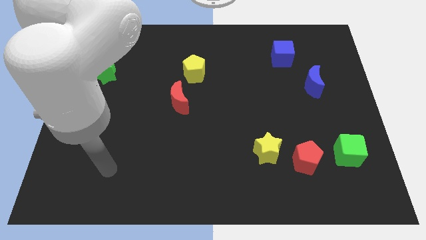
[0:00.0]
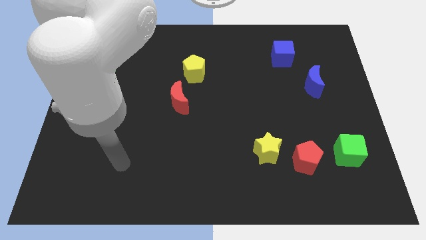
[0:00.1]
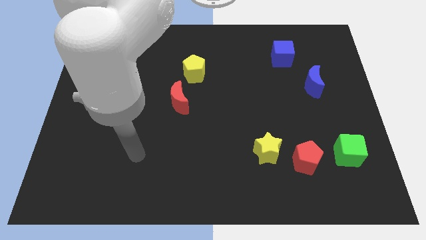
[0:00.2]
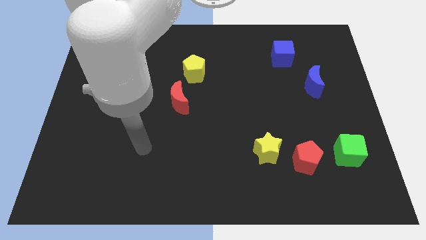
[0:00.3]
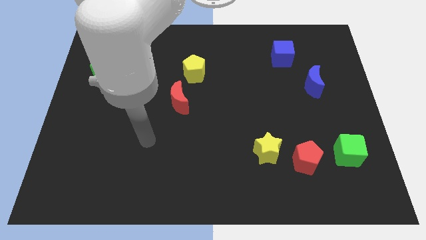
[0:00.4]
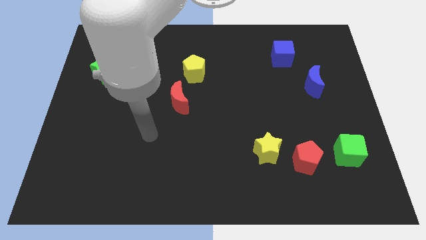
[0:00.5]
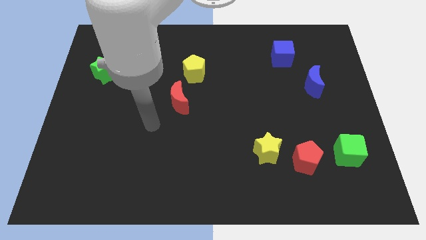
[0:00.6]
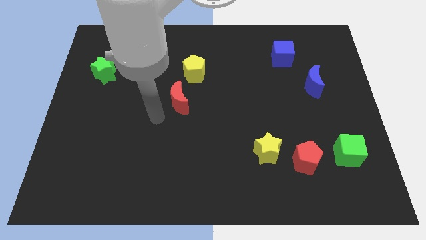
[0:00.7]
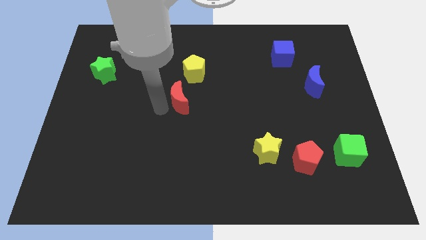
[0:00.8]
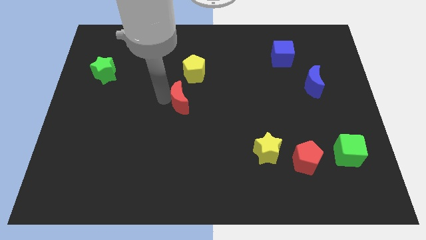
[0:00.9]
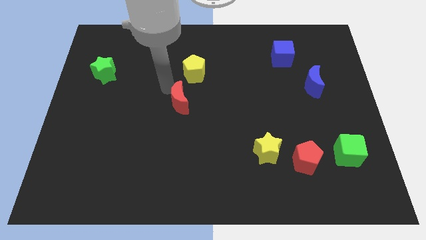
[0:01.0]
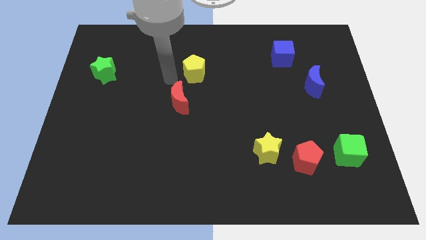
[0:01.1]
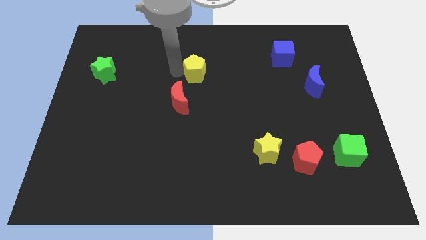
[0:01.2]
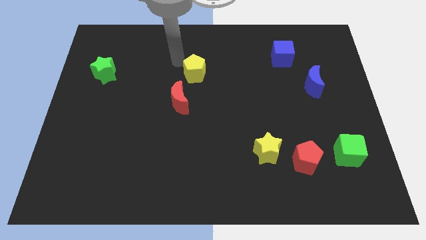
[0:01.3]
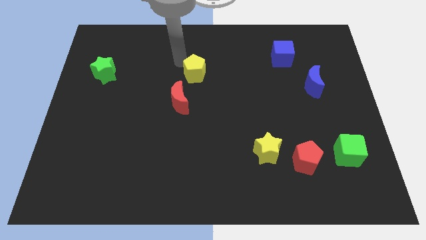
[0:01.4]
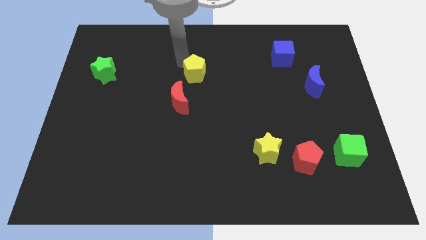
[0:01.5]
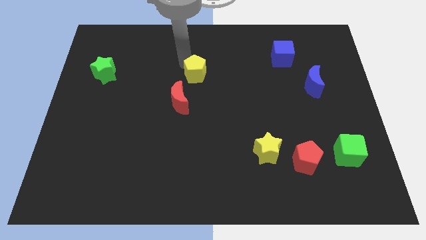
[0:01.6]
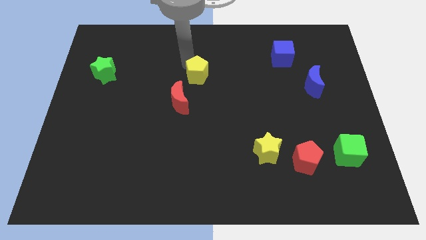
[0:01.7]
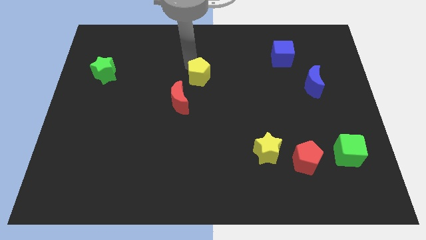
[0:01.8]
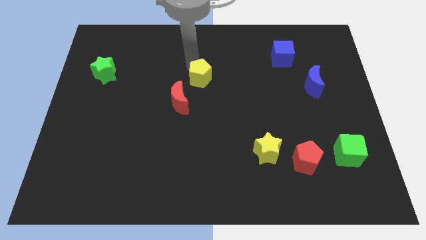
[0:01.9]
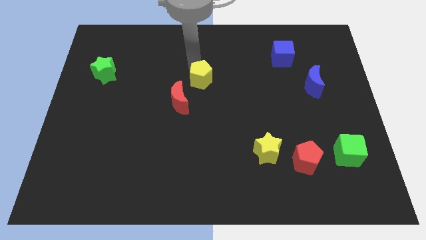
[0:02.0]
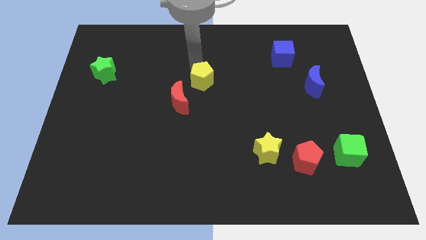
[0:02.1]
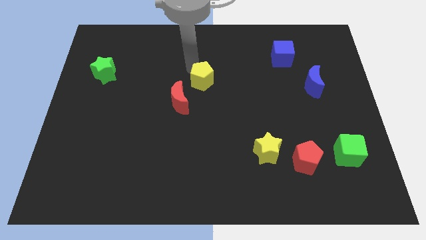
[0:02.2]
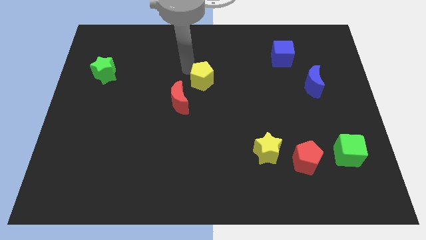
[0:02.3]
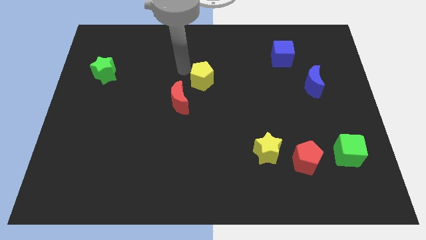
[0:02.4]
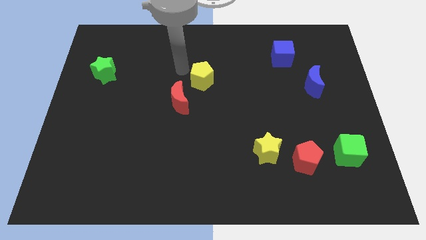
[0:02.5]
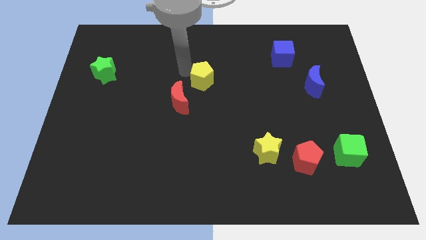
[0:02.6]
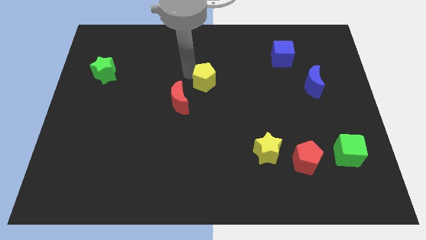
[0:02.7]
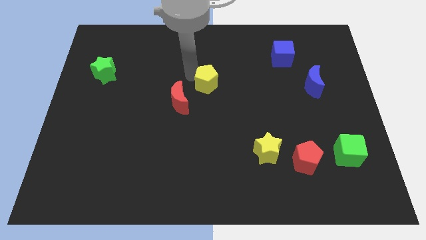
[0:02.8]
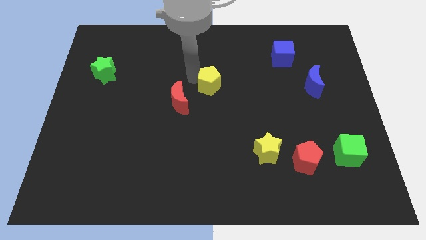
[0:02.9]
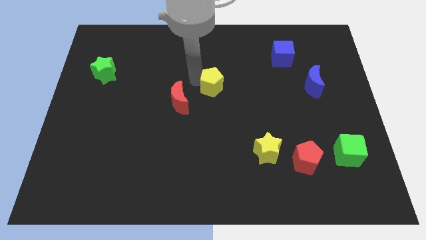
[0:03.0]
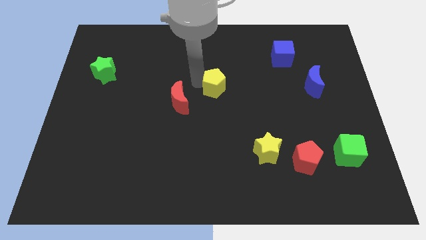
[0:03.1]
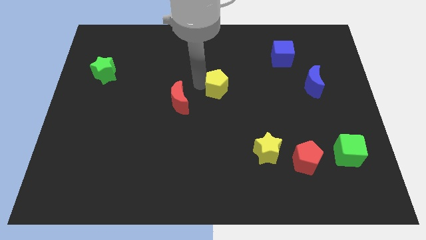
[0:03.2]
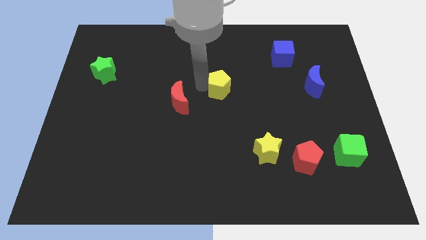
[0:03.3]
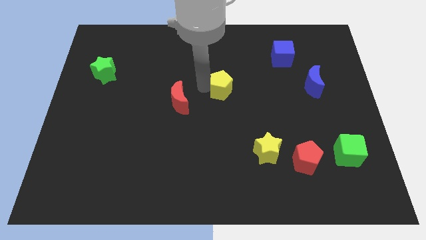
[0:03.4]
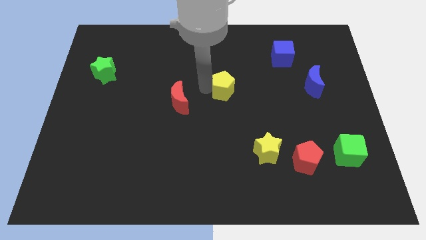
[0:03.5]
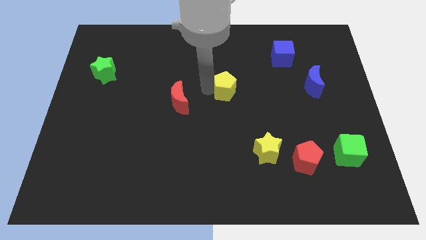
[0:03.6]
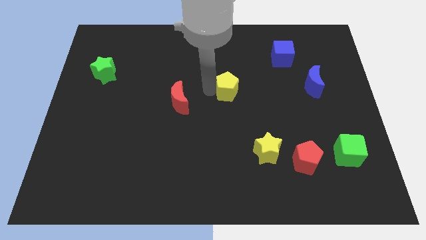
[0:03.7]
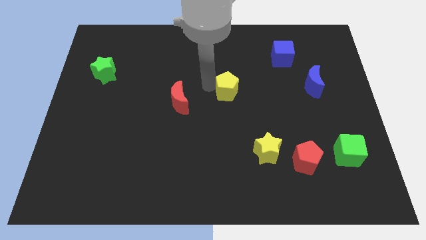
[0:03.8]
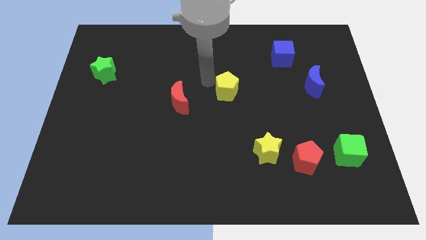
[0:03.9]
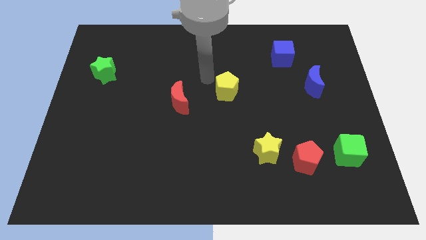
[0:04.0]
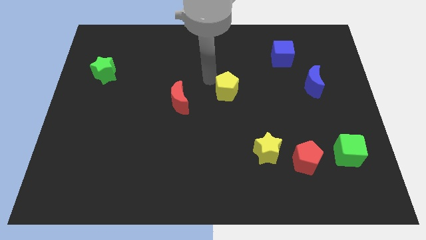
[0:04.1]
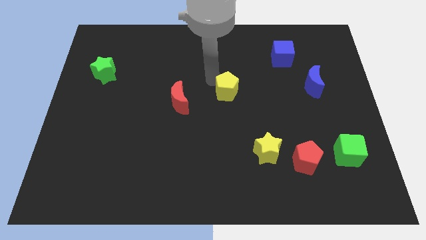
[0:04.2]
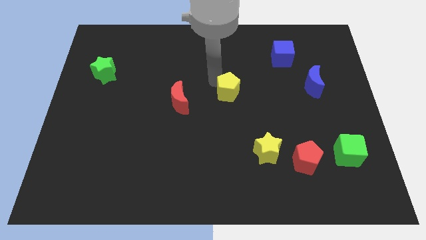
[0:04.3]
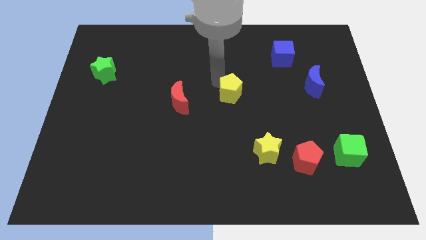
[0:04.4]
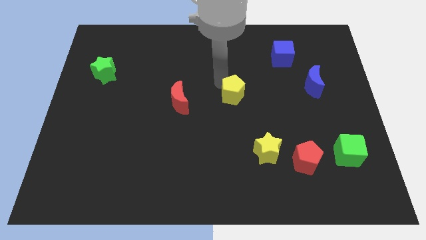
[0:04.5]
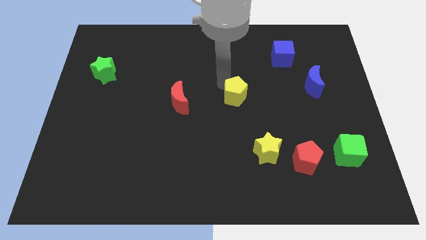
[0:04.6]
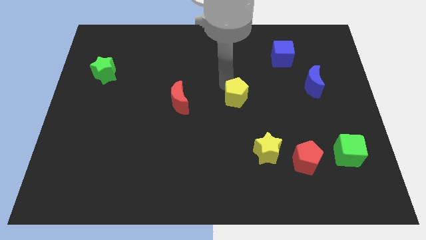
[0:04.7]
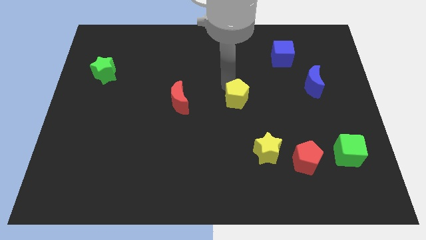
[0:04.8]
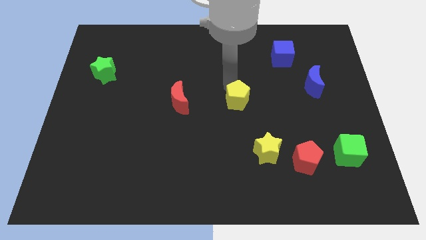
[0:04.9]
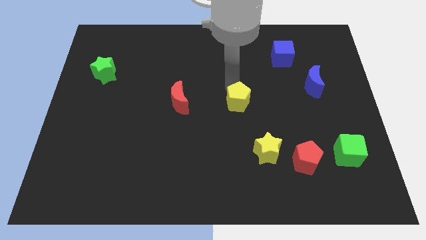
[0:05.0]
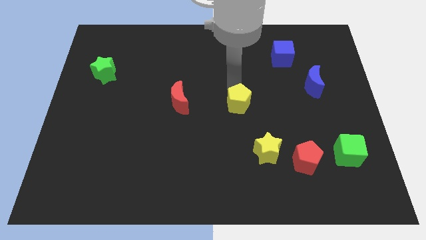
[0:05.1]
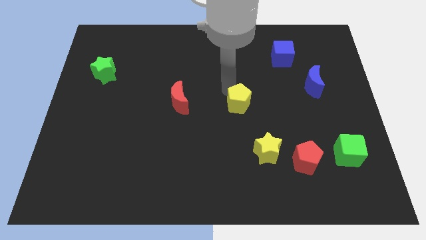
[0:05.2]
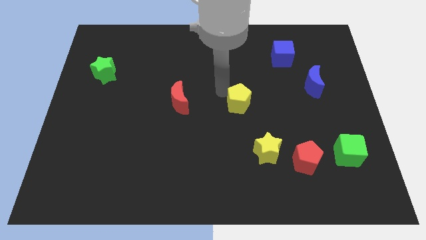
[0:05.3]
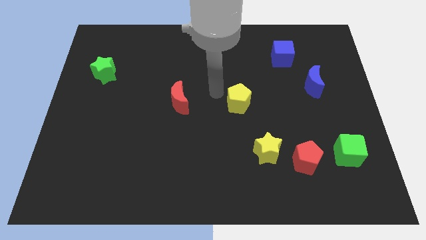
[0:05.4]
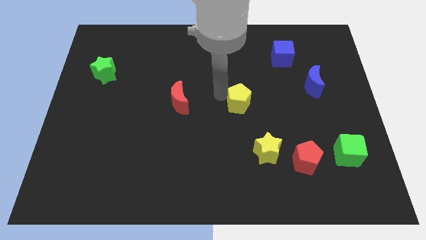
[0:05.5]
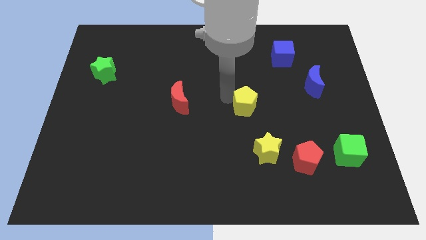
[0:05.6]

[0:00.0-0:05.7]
slide the yellow pentagon above the yellow star
